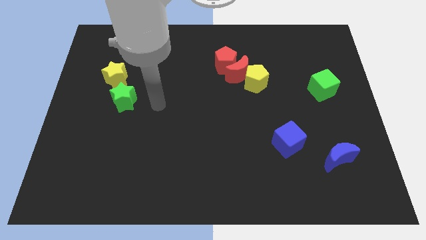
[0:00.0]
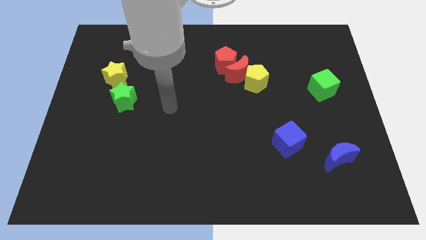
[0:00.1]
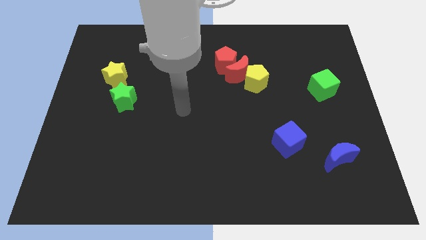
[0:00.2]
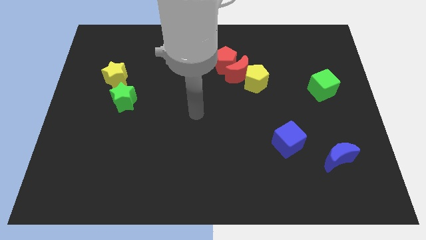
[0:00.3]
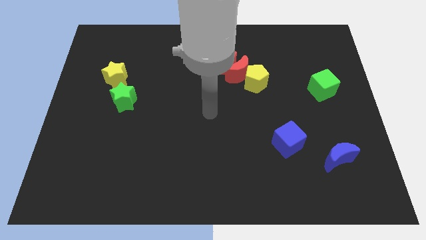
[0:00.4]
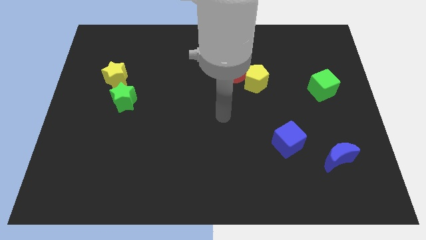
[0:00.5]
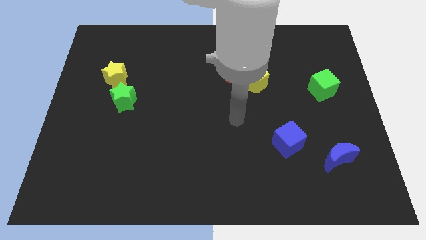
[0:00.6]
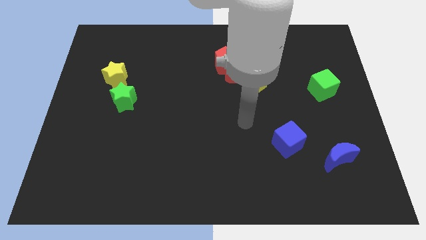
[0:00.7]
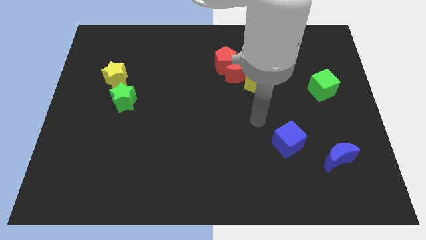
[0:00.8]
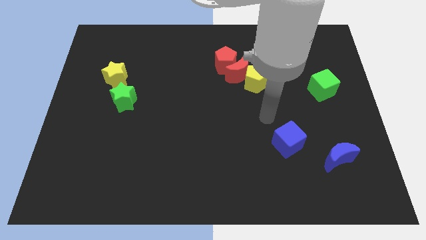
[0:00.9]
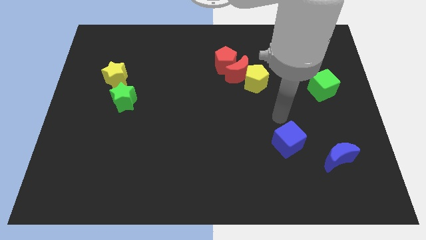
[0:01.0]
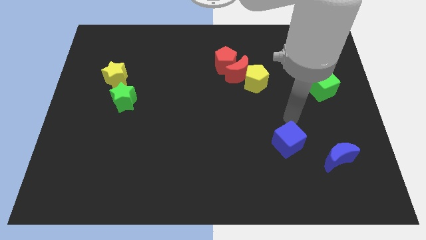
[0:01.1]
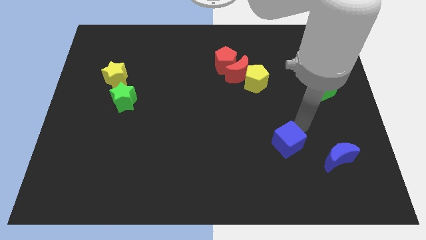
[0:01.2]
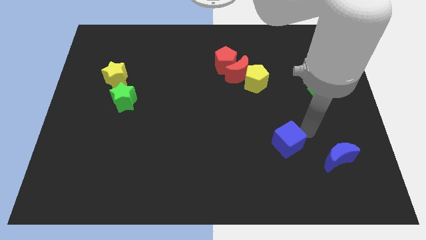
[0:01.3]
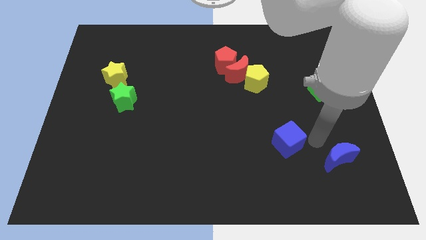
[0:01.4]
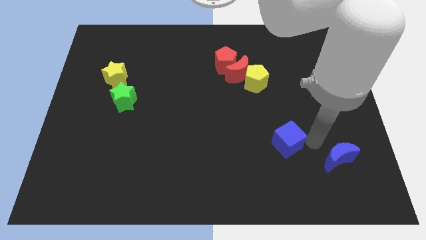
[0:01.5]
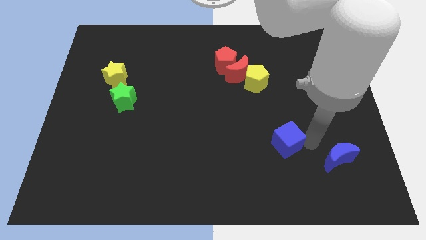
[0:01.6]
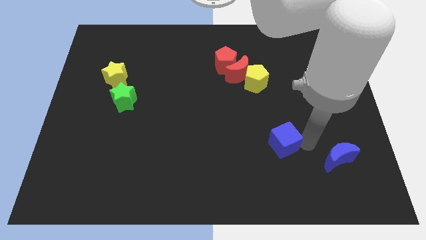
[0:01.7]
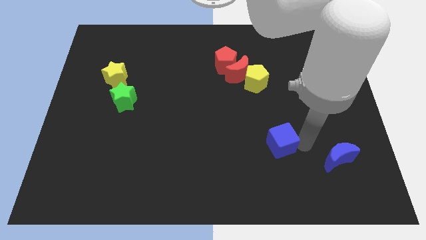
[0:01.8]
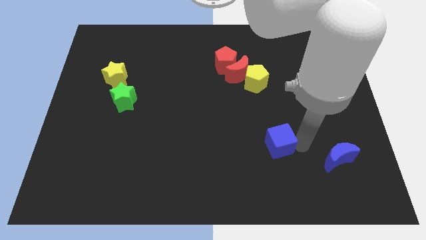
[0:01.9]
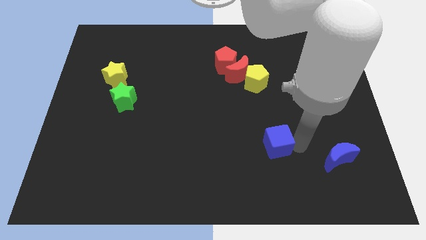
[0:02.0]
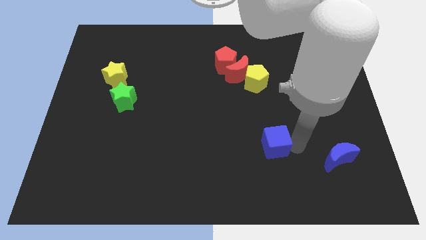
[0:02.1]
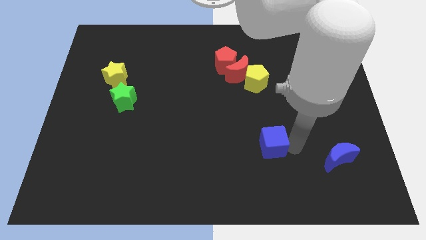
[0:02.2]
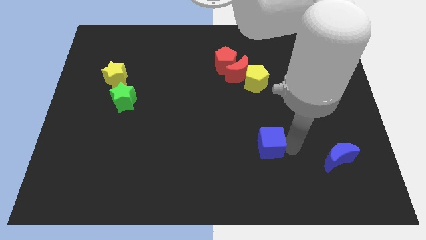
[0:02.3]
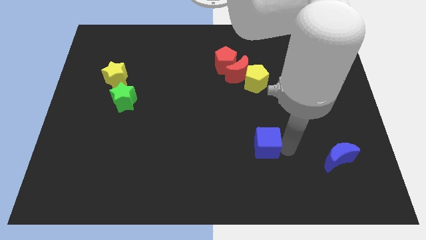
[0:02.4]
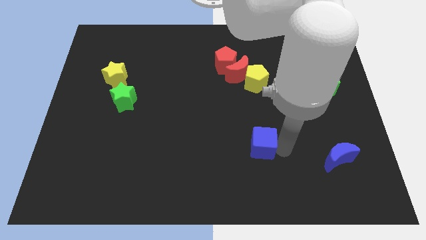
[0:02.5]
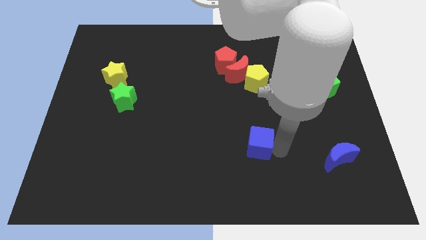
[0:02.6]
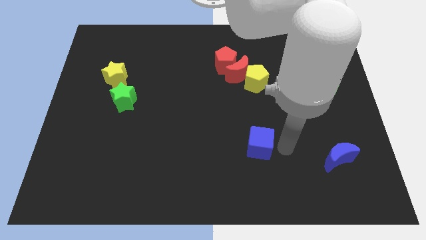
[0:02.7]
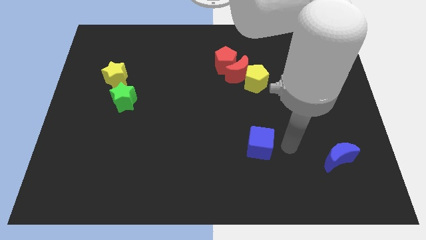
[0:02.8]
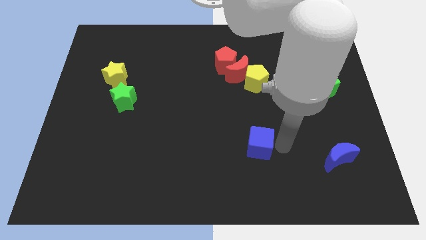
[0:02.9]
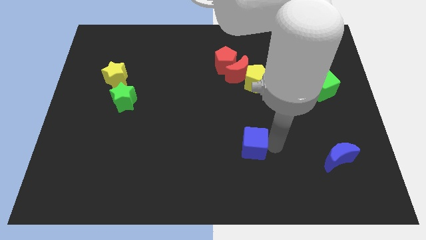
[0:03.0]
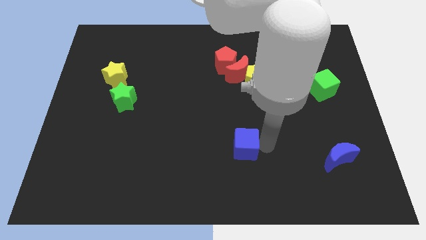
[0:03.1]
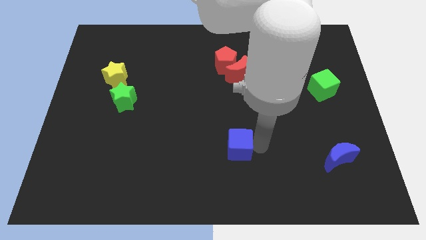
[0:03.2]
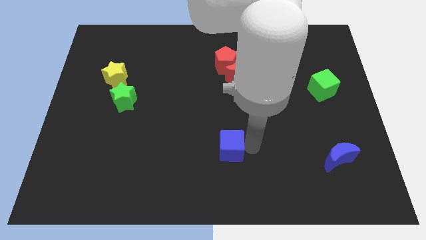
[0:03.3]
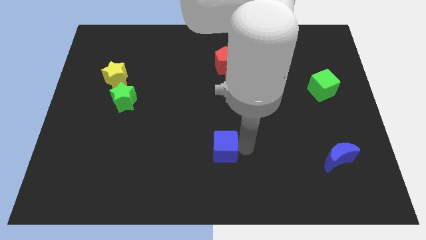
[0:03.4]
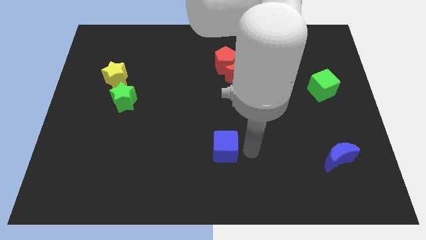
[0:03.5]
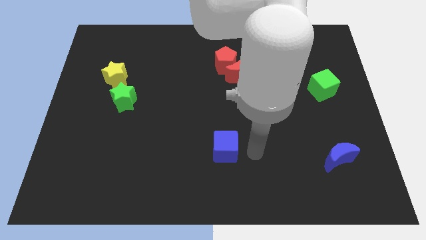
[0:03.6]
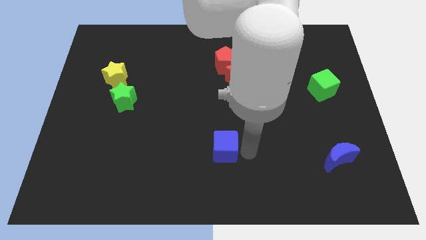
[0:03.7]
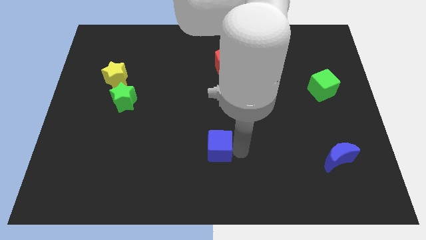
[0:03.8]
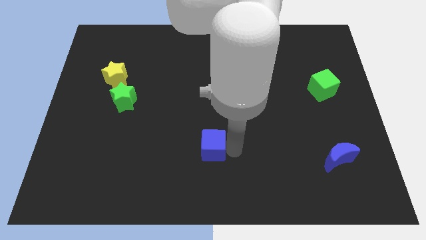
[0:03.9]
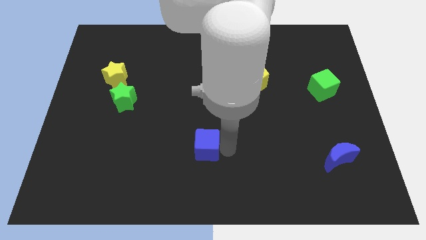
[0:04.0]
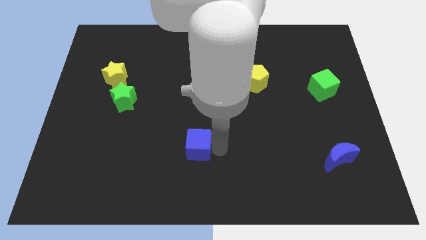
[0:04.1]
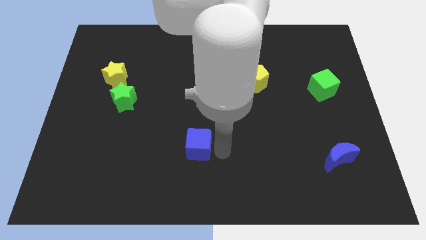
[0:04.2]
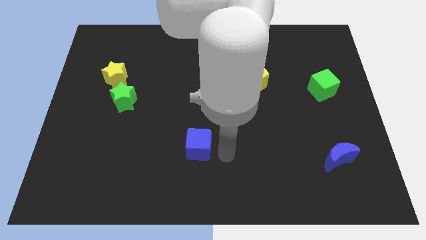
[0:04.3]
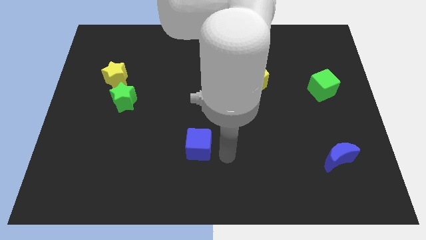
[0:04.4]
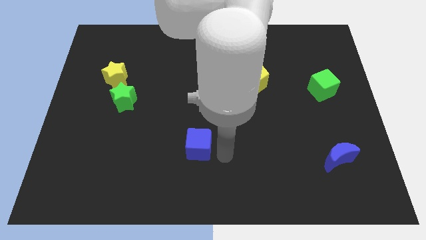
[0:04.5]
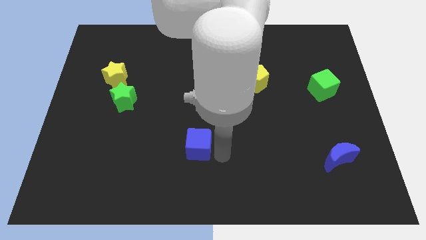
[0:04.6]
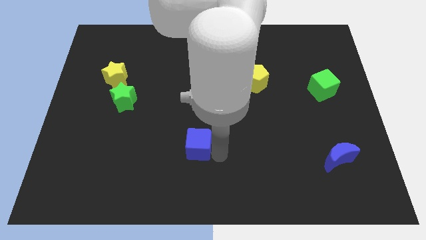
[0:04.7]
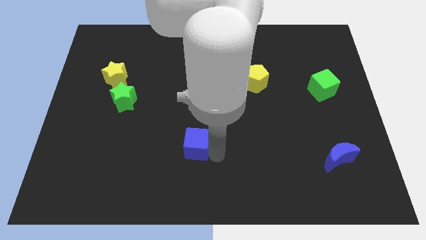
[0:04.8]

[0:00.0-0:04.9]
slide the blue cube left

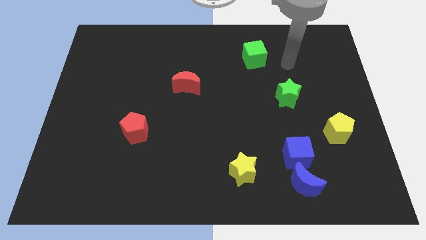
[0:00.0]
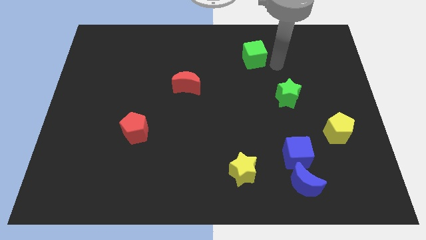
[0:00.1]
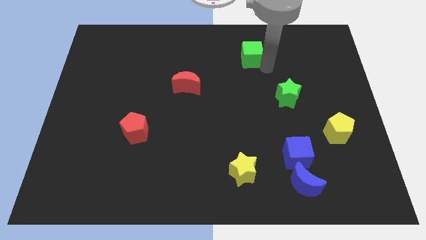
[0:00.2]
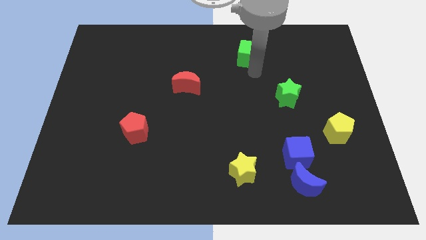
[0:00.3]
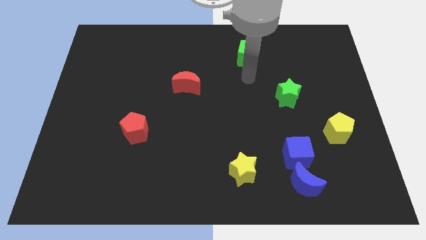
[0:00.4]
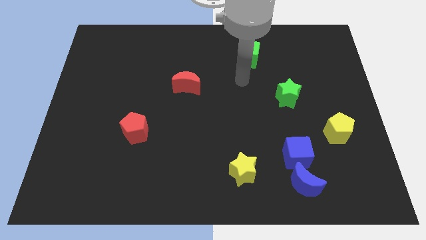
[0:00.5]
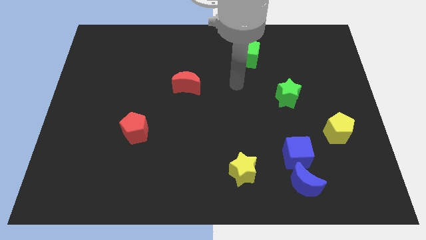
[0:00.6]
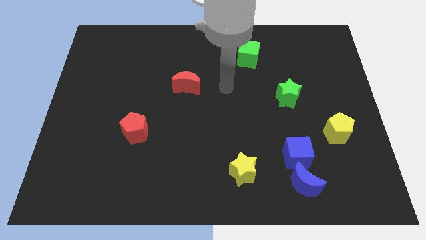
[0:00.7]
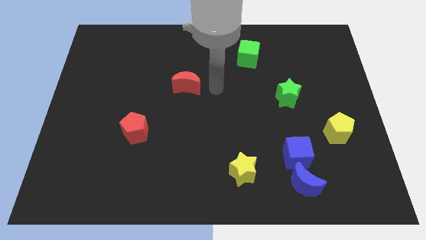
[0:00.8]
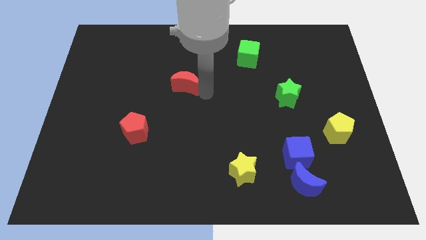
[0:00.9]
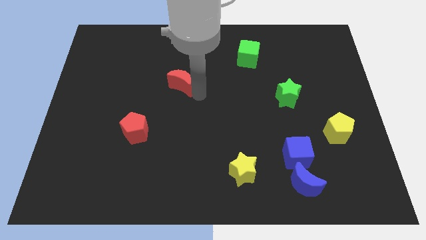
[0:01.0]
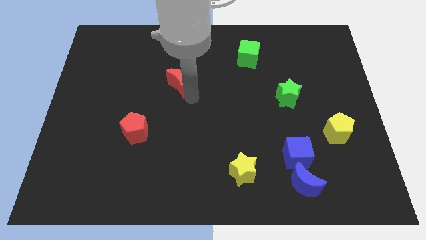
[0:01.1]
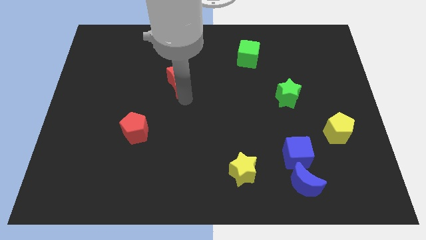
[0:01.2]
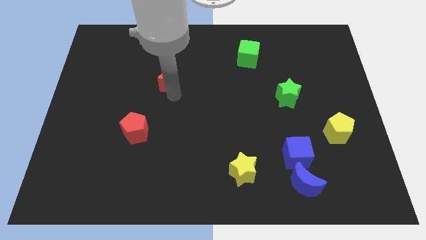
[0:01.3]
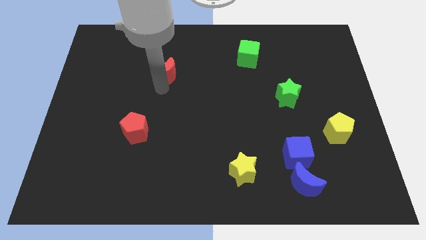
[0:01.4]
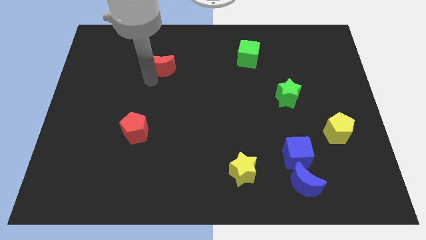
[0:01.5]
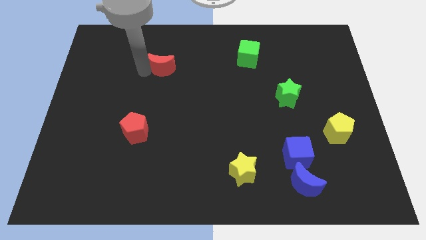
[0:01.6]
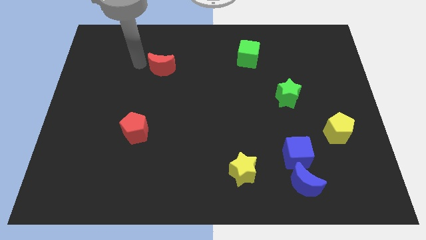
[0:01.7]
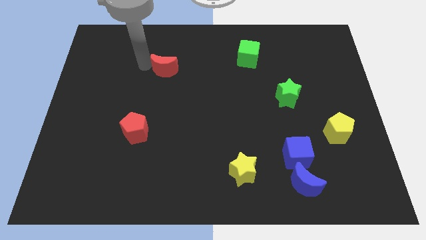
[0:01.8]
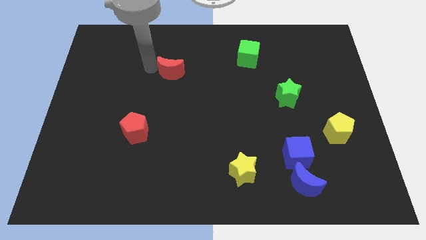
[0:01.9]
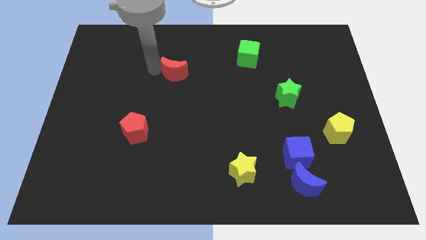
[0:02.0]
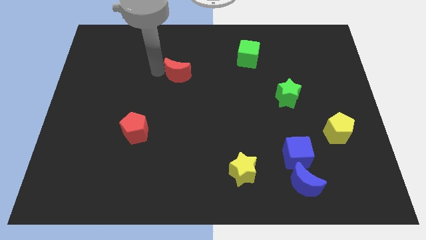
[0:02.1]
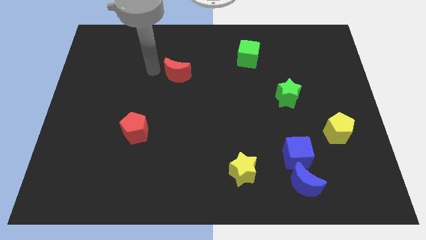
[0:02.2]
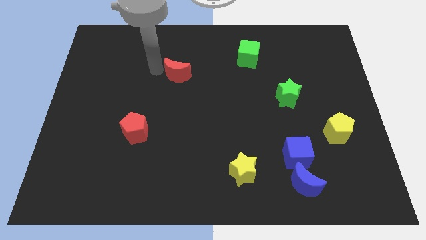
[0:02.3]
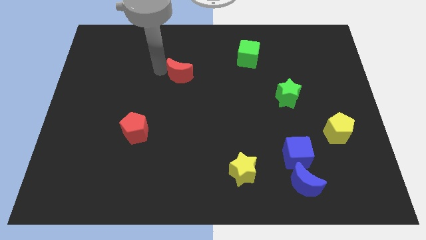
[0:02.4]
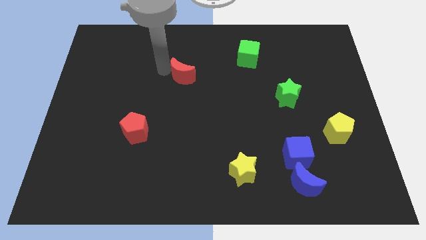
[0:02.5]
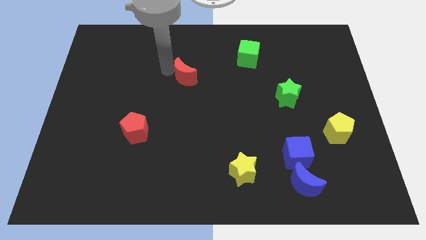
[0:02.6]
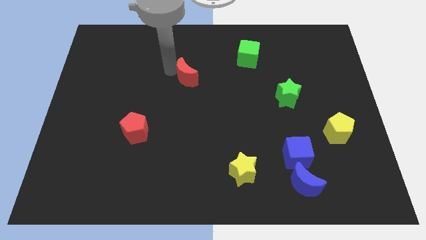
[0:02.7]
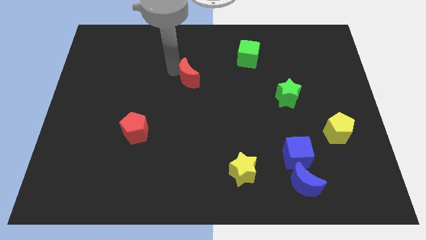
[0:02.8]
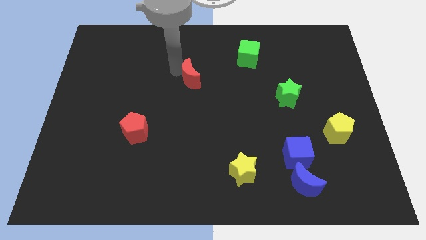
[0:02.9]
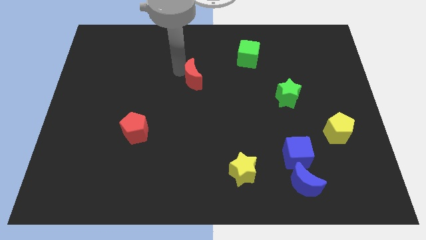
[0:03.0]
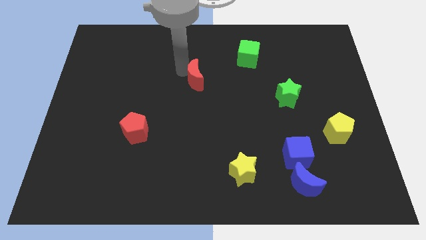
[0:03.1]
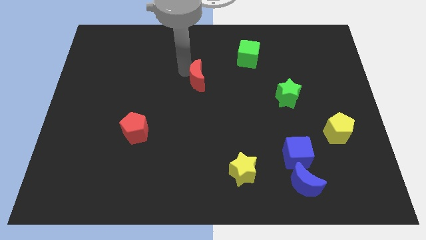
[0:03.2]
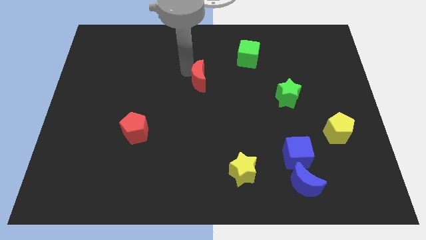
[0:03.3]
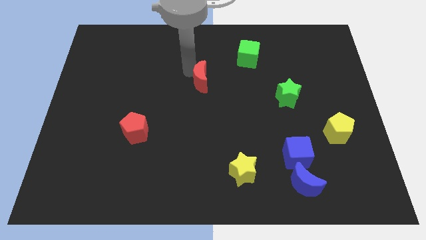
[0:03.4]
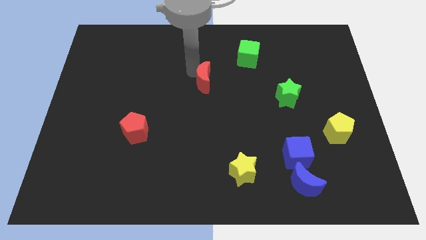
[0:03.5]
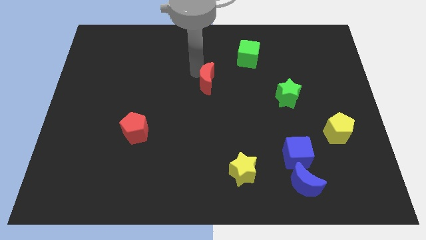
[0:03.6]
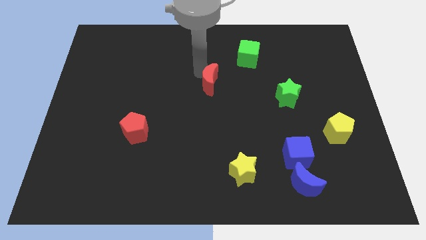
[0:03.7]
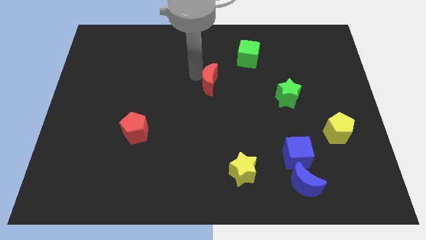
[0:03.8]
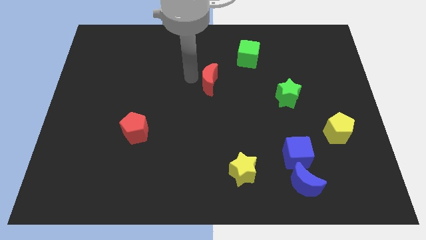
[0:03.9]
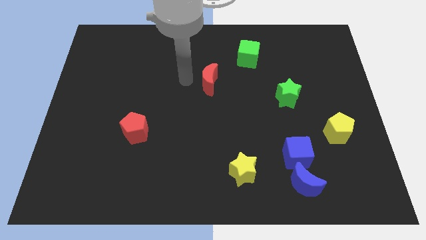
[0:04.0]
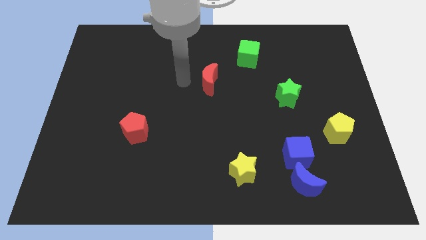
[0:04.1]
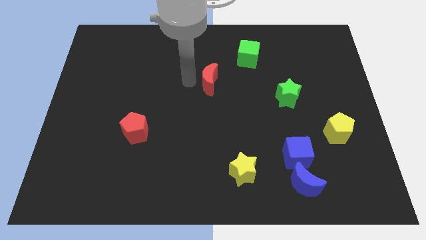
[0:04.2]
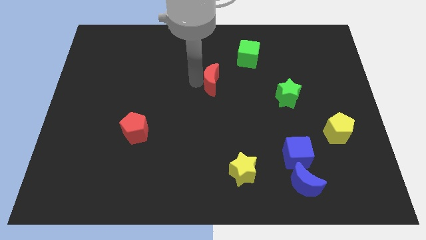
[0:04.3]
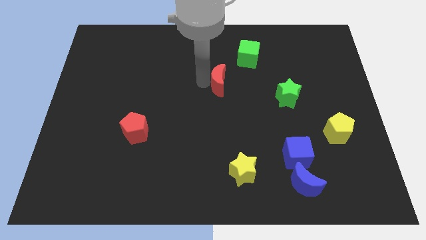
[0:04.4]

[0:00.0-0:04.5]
push the red moon to the right a bit
